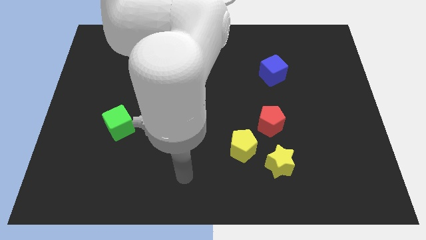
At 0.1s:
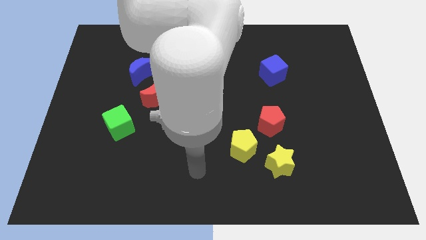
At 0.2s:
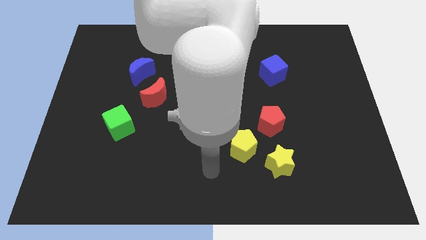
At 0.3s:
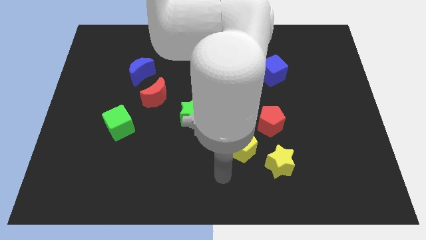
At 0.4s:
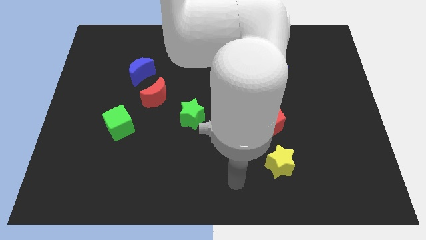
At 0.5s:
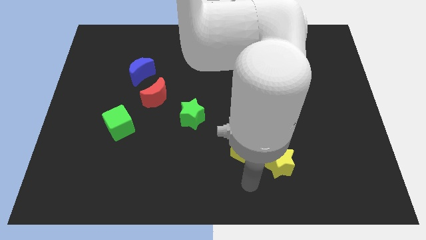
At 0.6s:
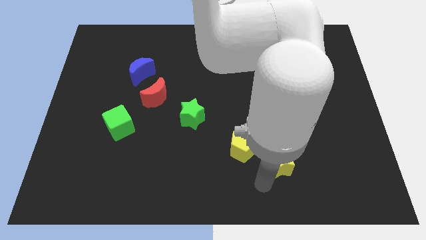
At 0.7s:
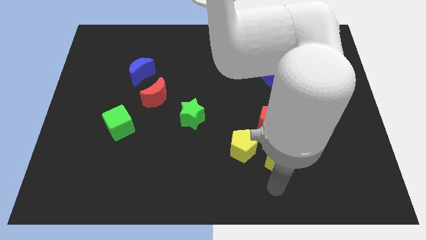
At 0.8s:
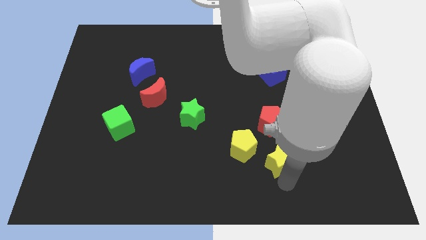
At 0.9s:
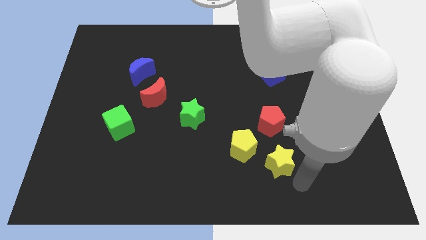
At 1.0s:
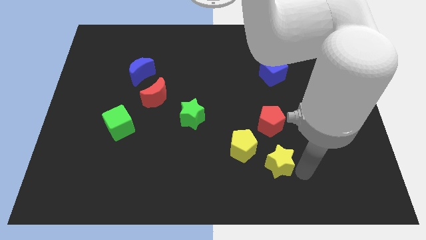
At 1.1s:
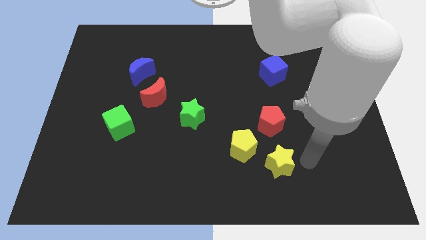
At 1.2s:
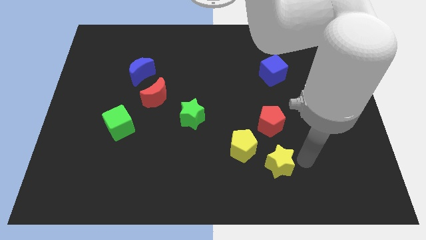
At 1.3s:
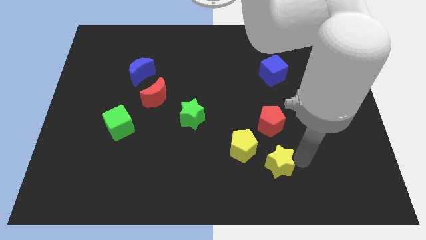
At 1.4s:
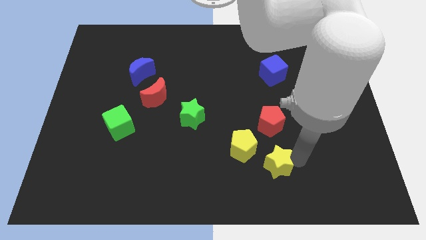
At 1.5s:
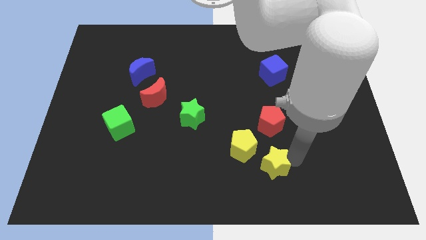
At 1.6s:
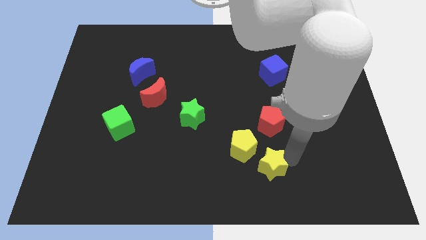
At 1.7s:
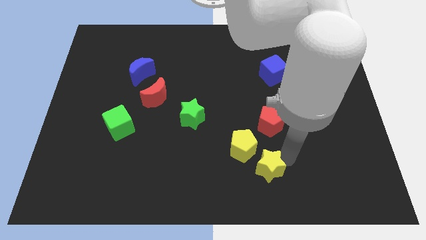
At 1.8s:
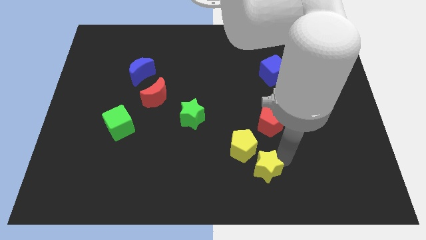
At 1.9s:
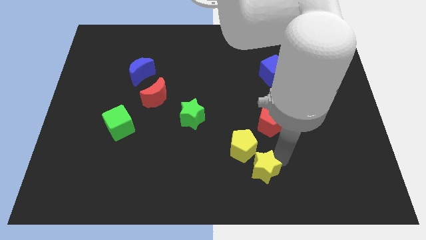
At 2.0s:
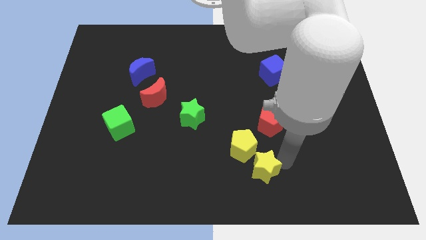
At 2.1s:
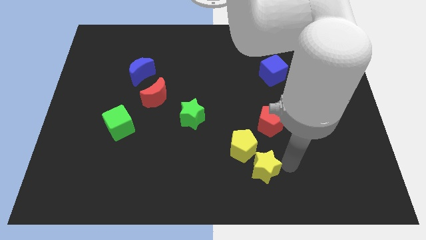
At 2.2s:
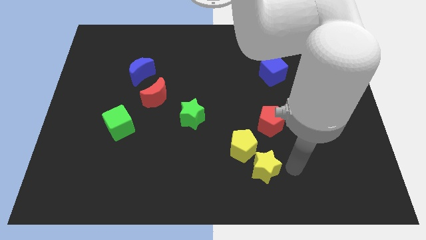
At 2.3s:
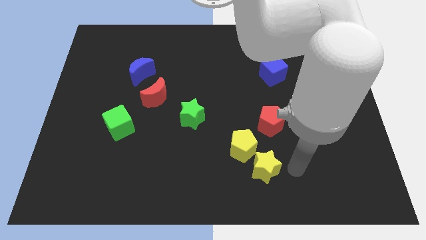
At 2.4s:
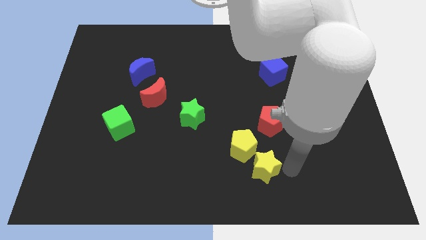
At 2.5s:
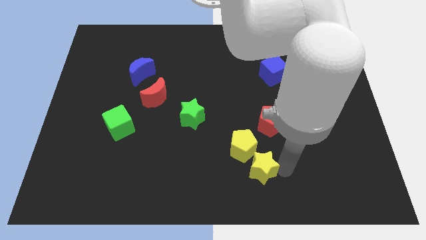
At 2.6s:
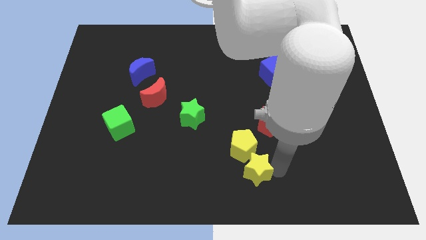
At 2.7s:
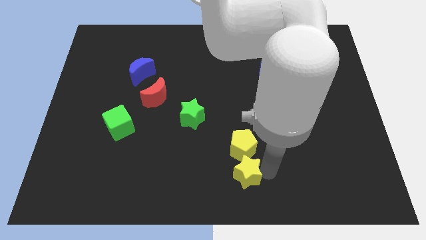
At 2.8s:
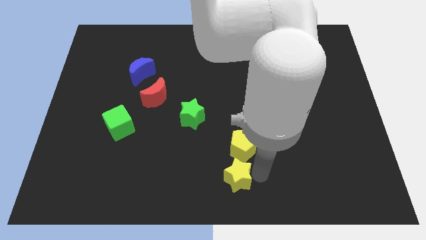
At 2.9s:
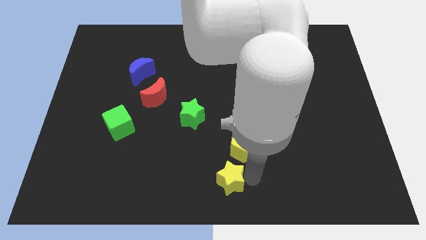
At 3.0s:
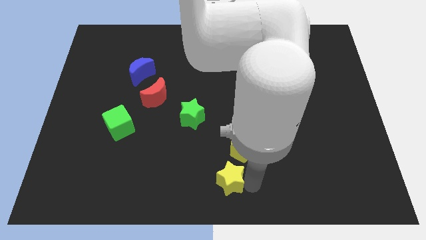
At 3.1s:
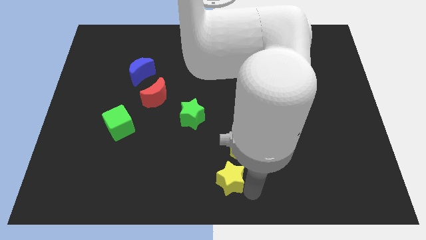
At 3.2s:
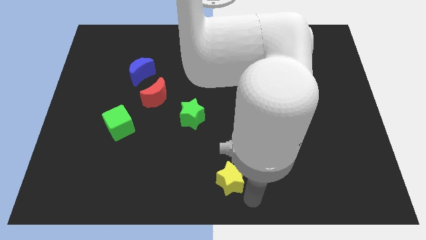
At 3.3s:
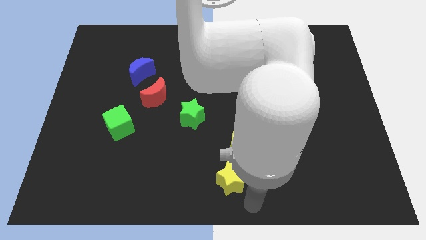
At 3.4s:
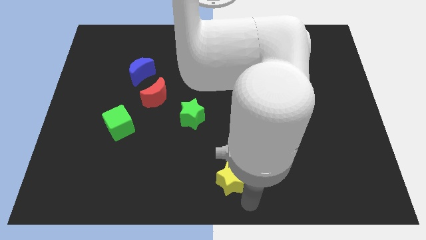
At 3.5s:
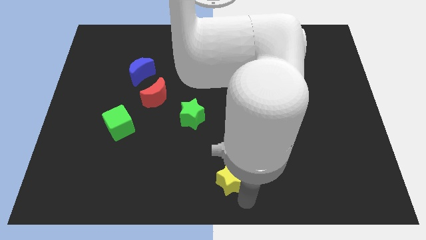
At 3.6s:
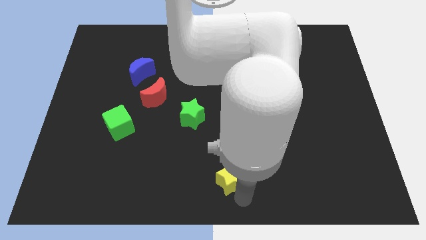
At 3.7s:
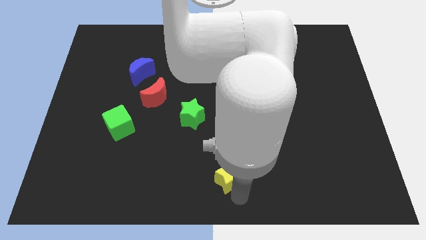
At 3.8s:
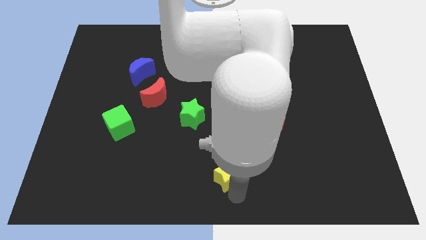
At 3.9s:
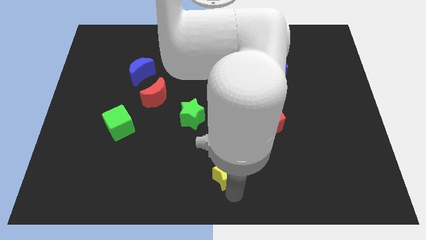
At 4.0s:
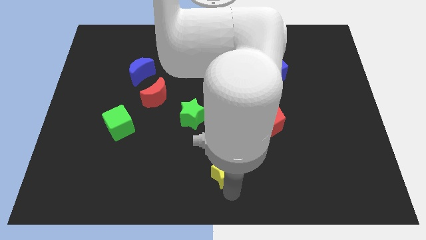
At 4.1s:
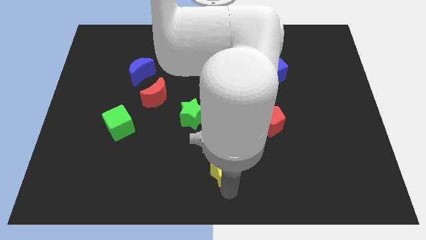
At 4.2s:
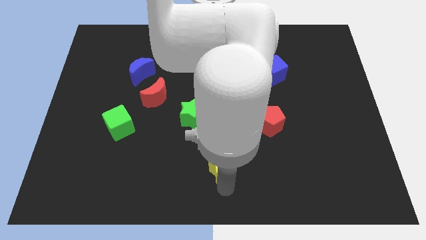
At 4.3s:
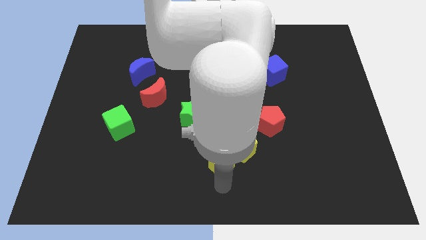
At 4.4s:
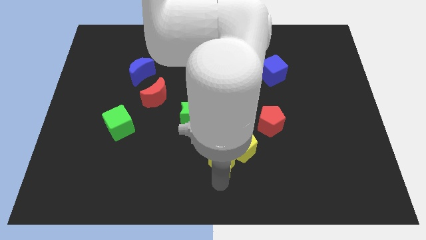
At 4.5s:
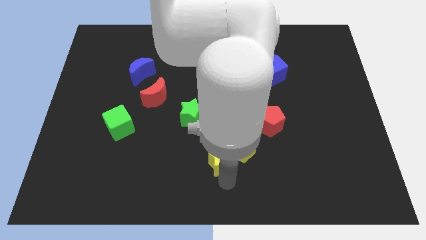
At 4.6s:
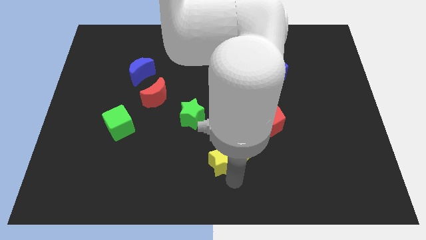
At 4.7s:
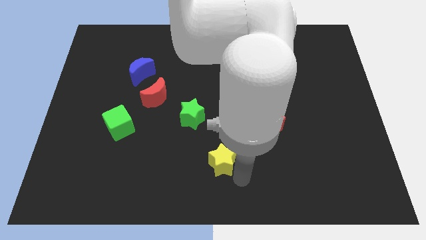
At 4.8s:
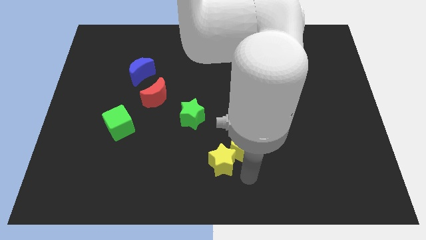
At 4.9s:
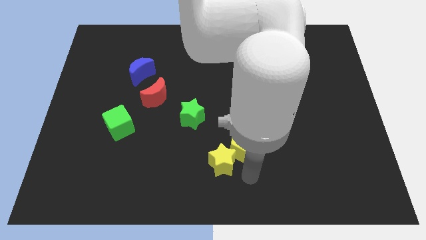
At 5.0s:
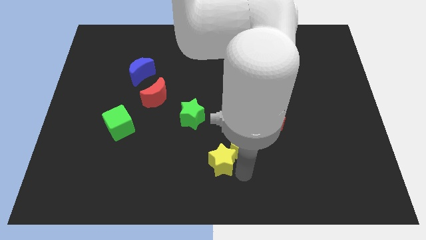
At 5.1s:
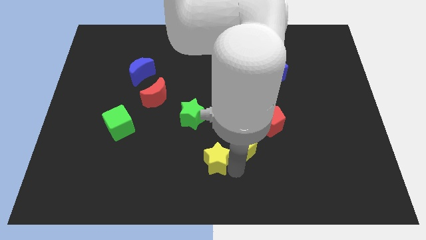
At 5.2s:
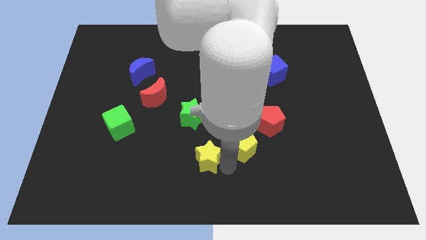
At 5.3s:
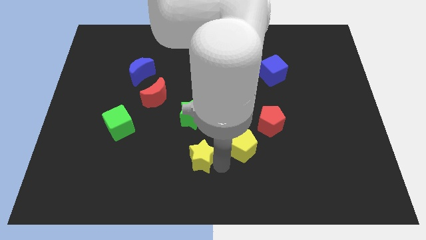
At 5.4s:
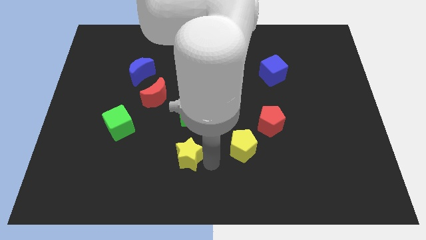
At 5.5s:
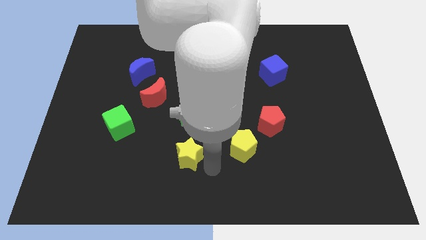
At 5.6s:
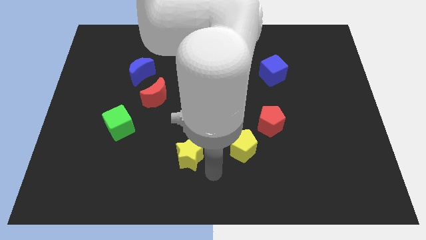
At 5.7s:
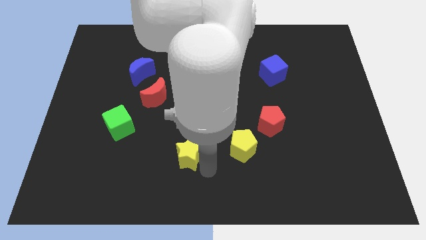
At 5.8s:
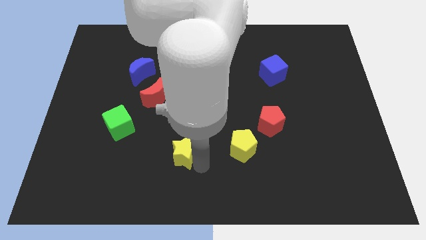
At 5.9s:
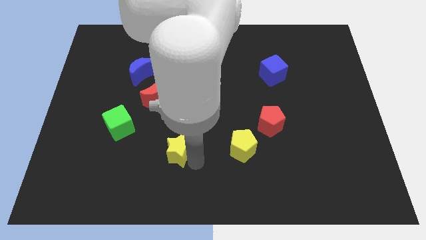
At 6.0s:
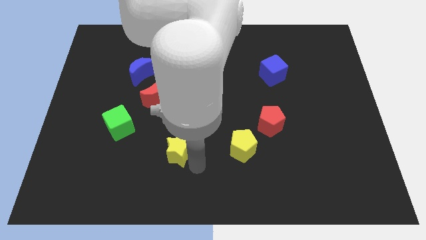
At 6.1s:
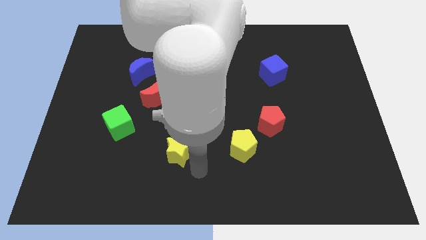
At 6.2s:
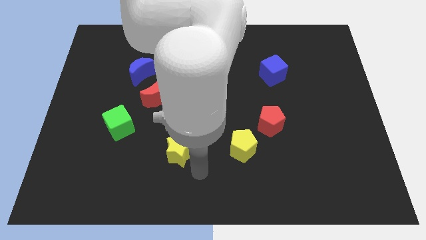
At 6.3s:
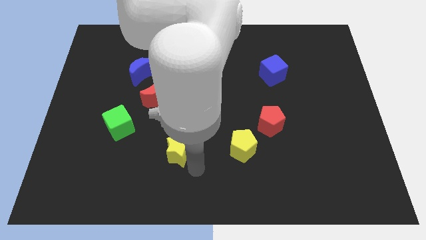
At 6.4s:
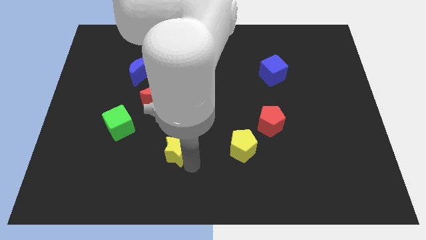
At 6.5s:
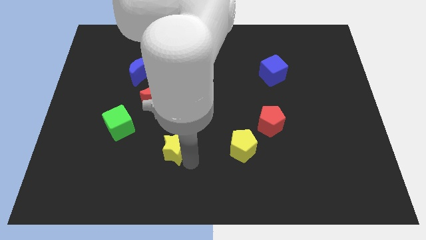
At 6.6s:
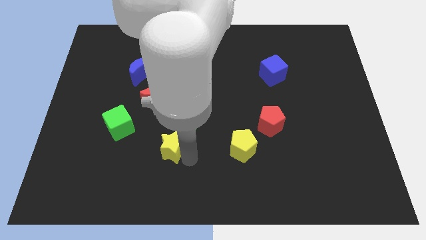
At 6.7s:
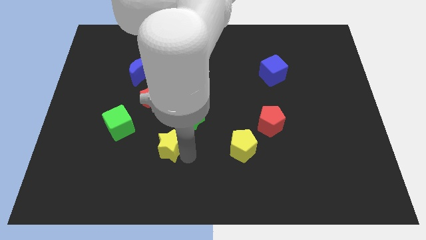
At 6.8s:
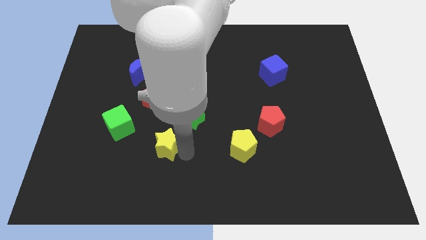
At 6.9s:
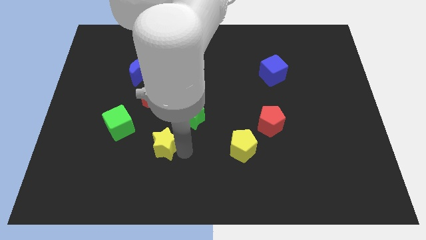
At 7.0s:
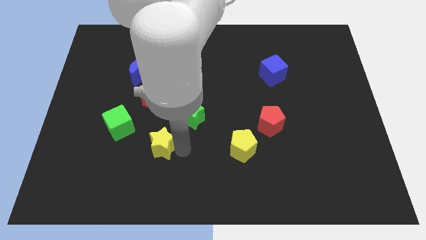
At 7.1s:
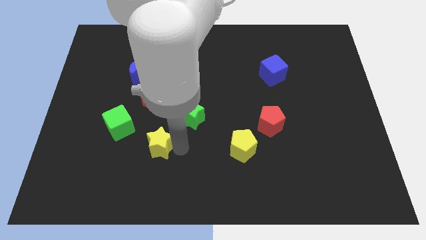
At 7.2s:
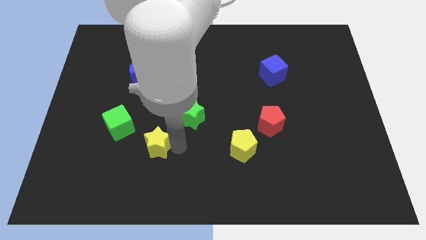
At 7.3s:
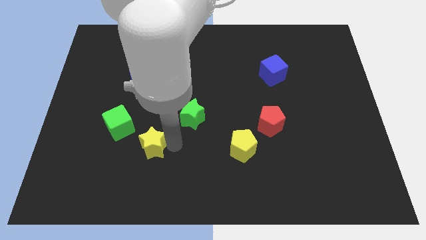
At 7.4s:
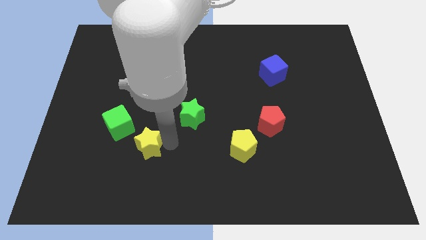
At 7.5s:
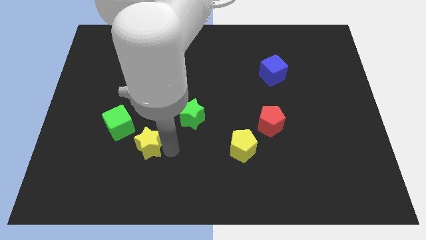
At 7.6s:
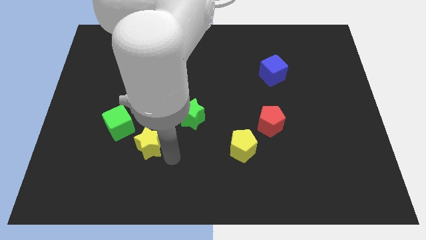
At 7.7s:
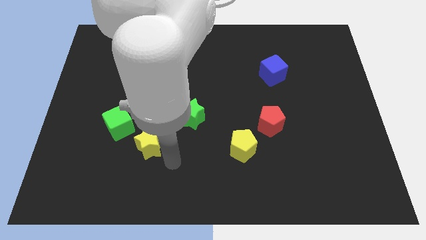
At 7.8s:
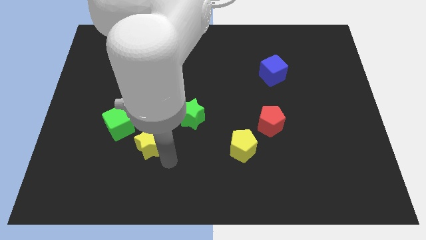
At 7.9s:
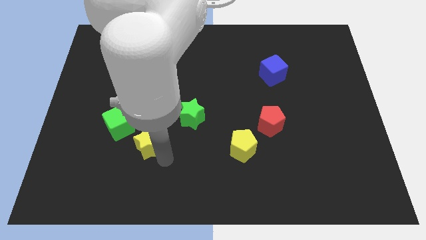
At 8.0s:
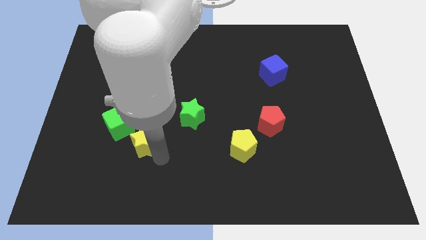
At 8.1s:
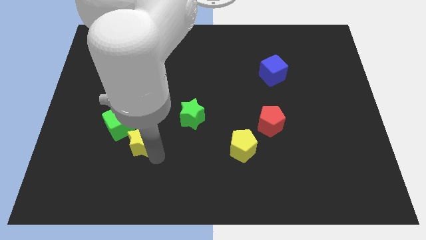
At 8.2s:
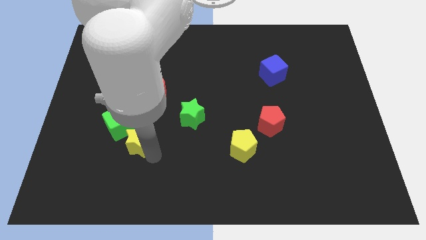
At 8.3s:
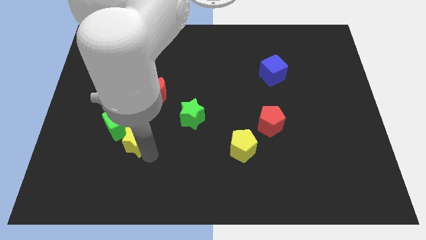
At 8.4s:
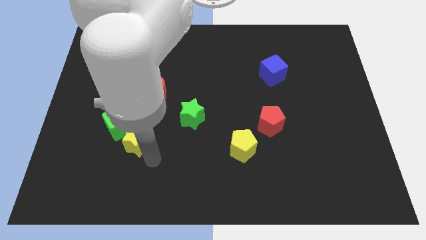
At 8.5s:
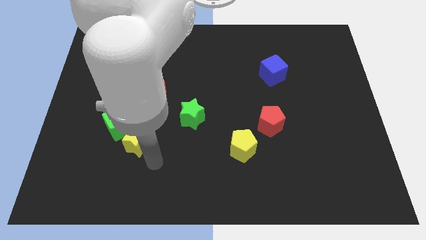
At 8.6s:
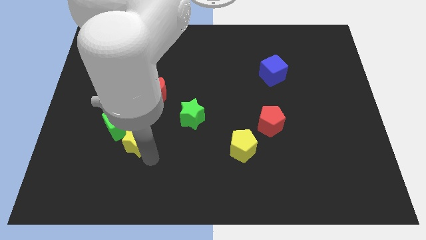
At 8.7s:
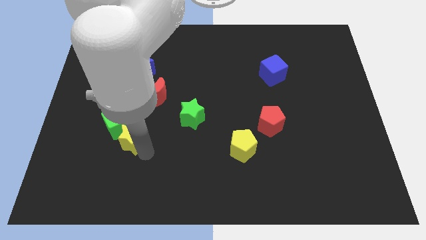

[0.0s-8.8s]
slide the yellow star close to the green cube
